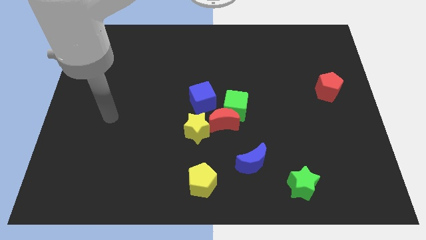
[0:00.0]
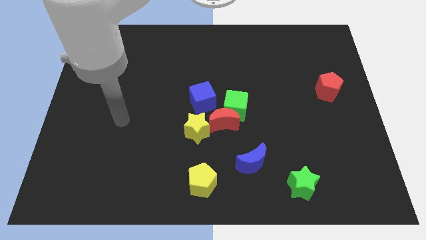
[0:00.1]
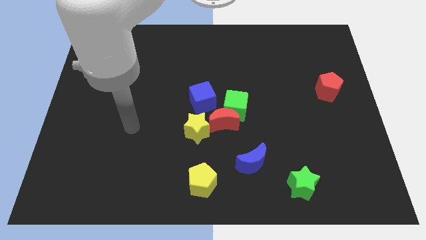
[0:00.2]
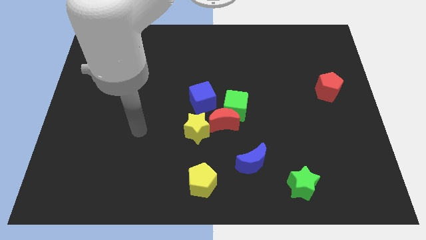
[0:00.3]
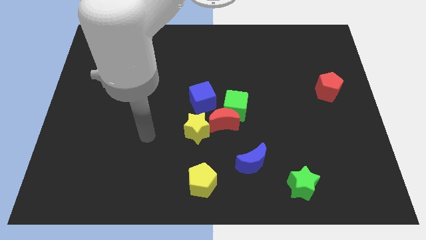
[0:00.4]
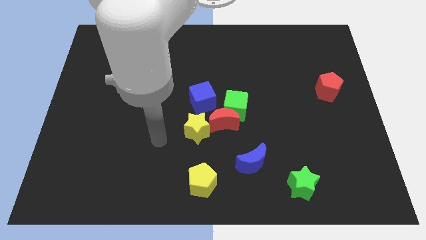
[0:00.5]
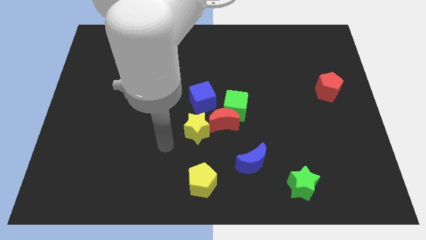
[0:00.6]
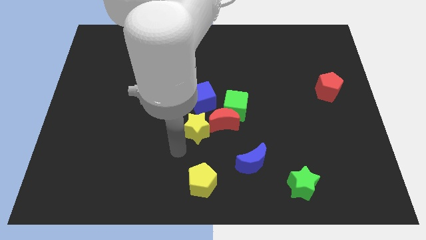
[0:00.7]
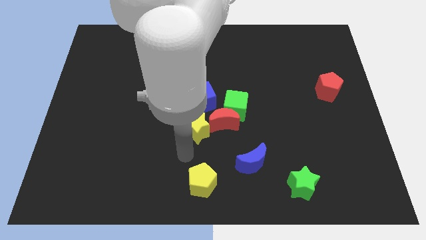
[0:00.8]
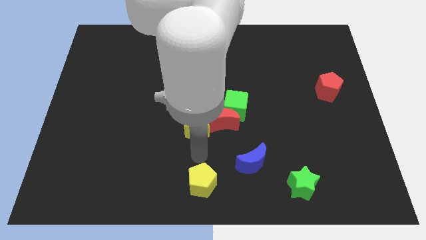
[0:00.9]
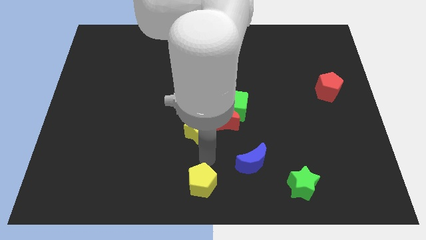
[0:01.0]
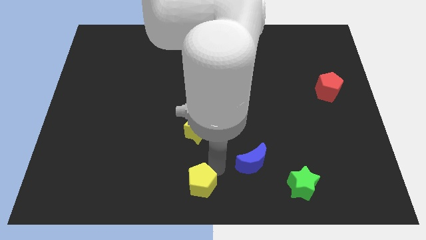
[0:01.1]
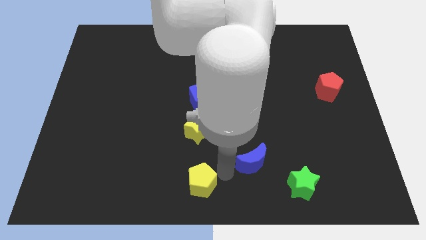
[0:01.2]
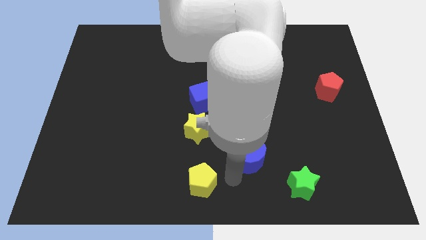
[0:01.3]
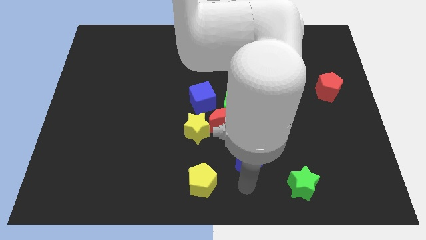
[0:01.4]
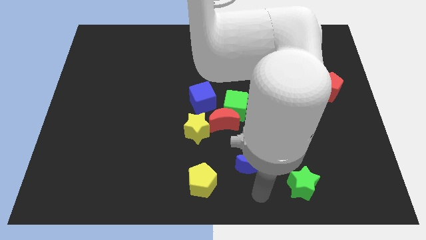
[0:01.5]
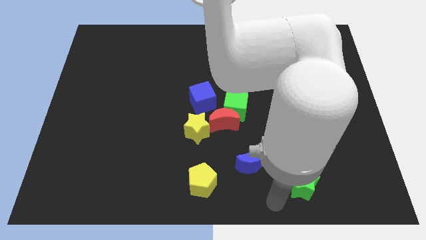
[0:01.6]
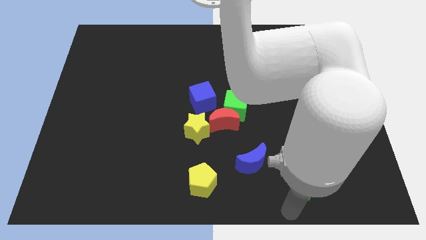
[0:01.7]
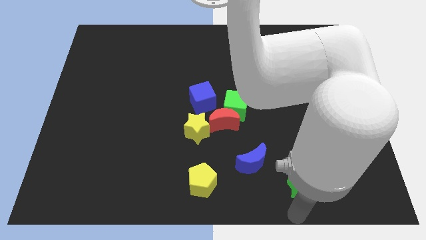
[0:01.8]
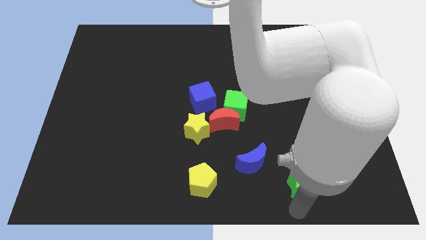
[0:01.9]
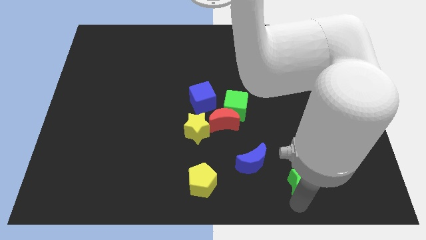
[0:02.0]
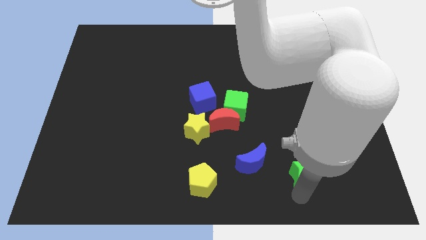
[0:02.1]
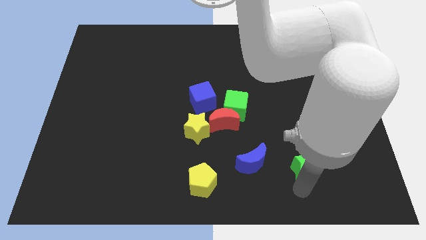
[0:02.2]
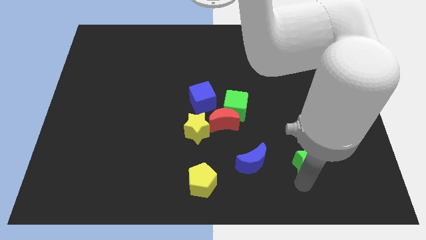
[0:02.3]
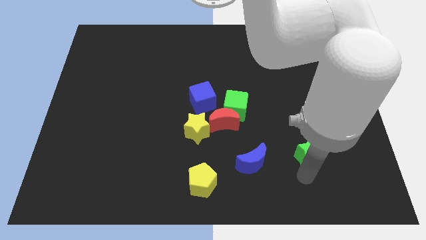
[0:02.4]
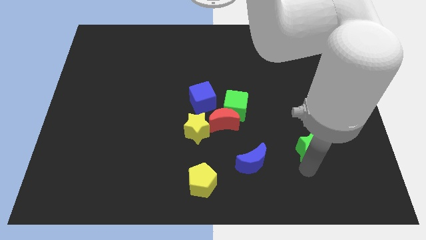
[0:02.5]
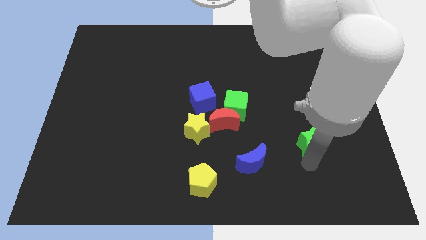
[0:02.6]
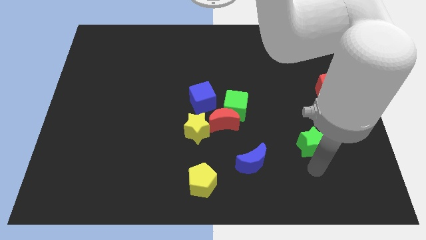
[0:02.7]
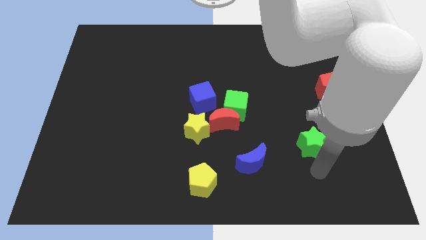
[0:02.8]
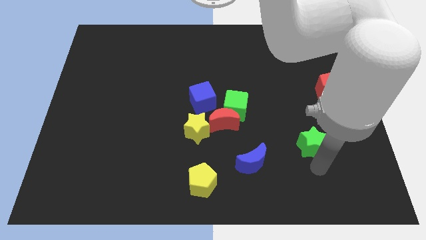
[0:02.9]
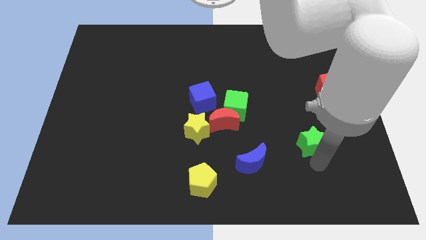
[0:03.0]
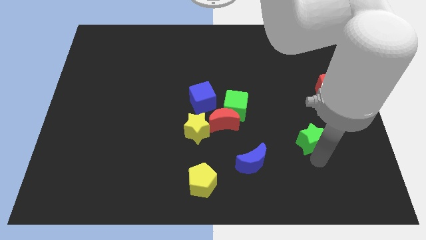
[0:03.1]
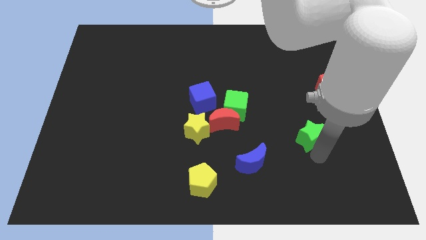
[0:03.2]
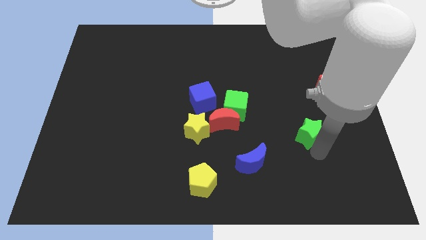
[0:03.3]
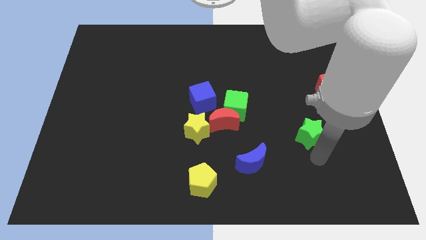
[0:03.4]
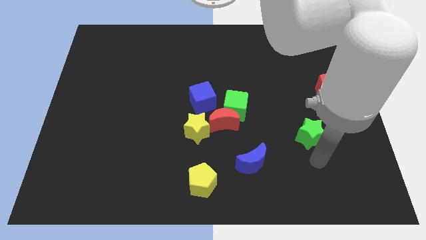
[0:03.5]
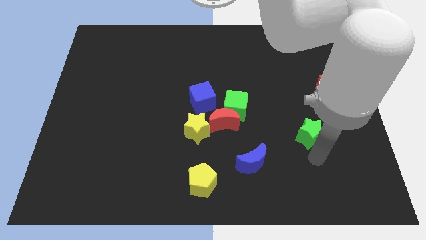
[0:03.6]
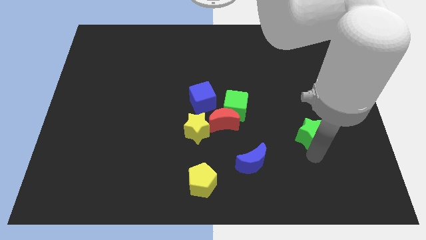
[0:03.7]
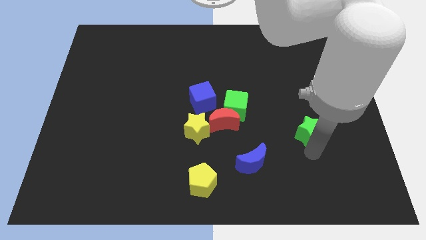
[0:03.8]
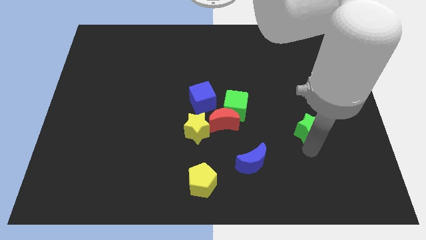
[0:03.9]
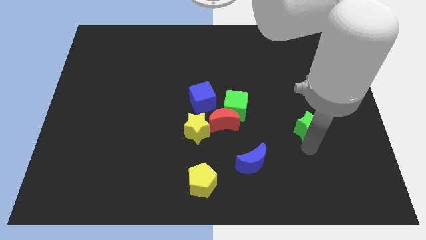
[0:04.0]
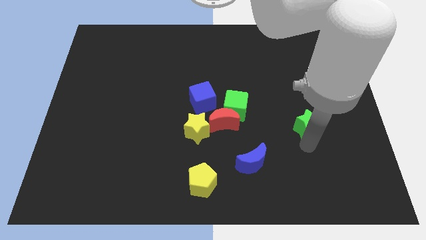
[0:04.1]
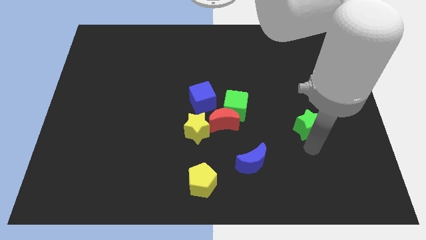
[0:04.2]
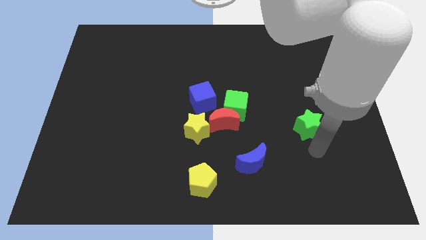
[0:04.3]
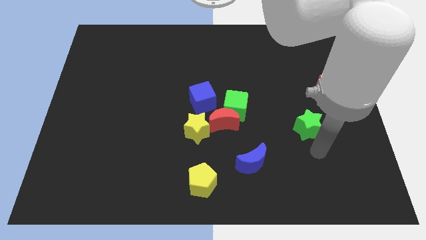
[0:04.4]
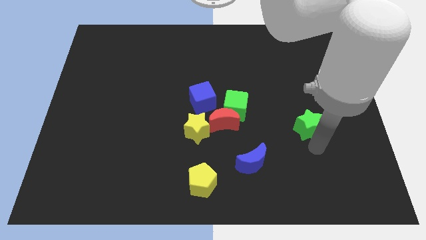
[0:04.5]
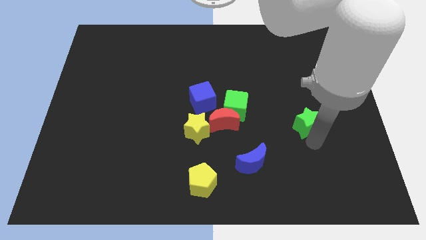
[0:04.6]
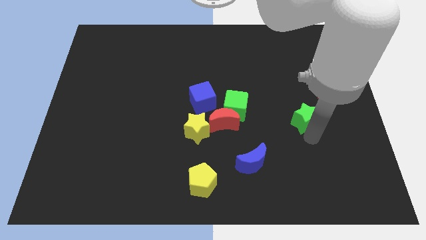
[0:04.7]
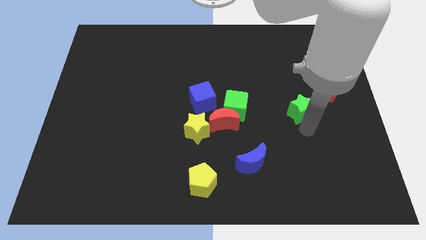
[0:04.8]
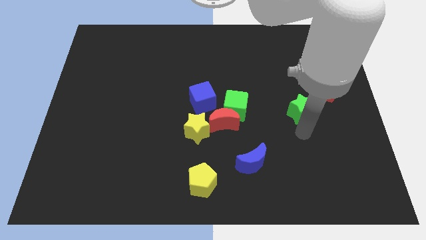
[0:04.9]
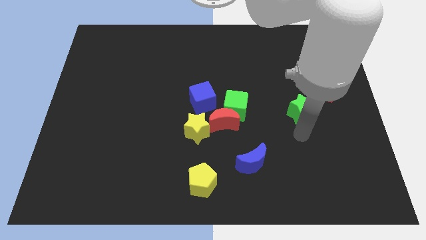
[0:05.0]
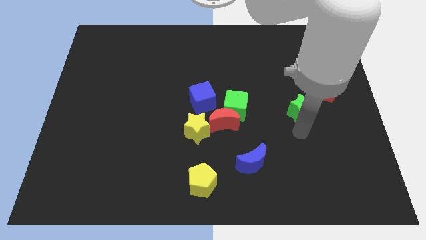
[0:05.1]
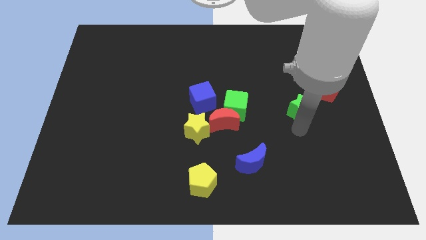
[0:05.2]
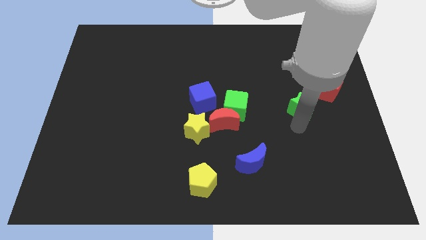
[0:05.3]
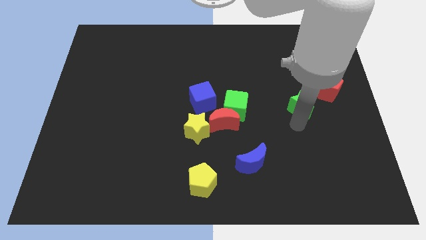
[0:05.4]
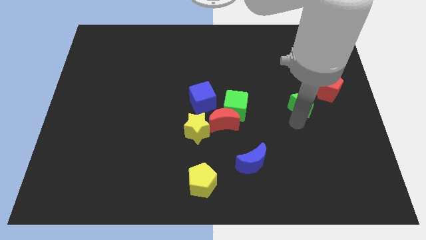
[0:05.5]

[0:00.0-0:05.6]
push the green star upwards

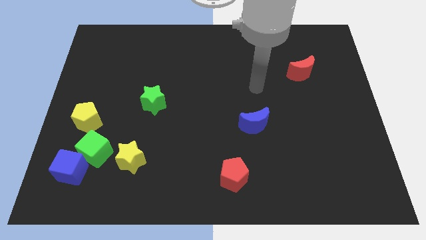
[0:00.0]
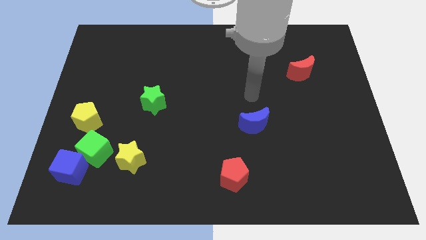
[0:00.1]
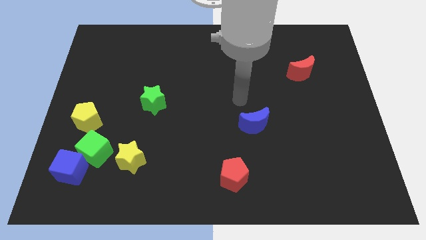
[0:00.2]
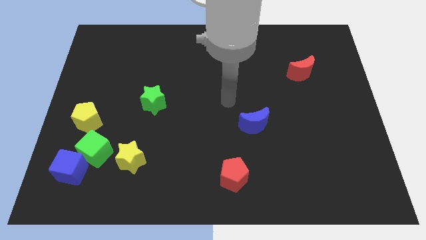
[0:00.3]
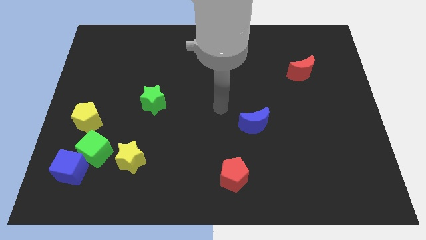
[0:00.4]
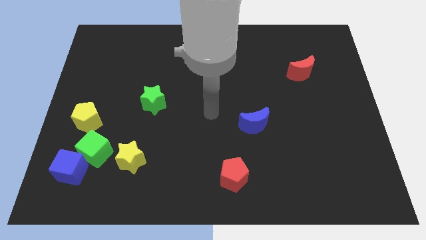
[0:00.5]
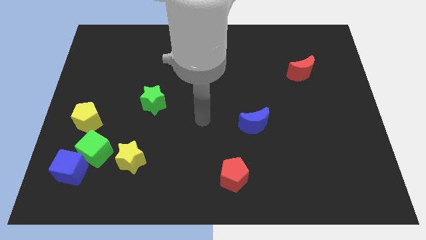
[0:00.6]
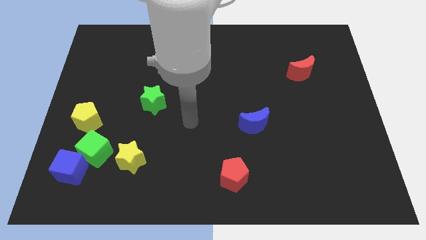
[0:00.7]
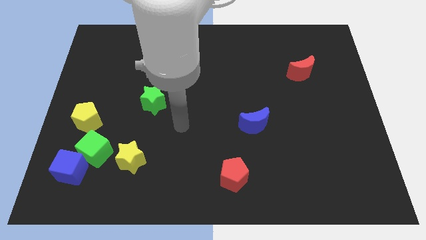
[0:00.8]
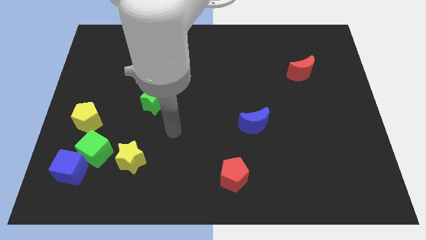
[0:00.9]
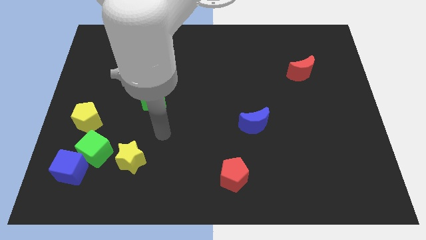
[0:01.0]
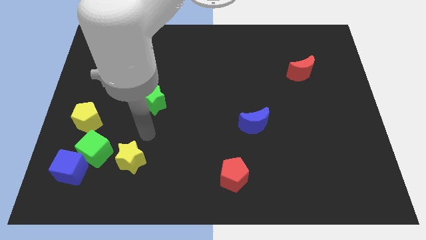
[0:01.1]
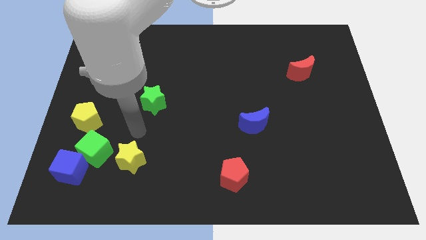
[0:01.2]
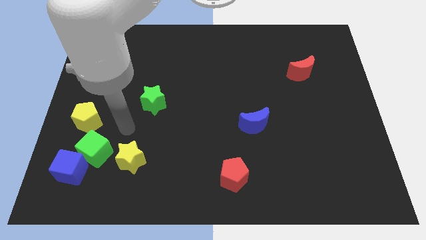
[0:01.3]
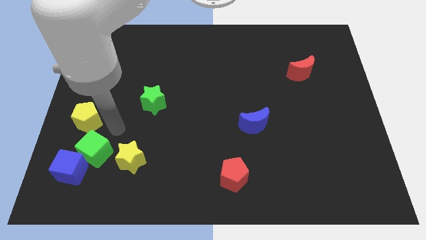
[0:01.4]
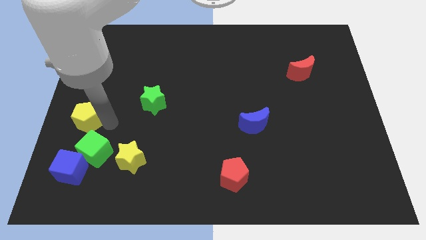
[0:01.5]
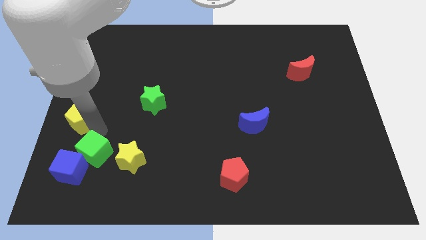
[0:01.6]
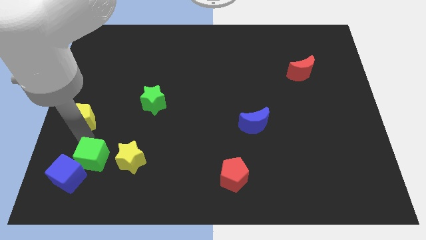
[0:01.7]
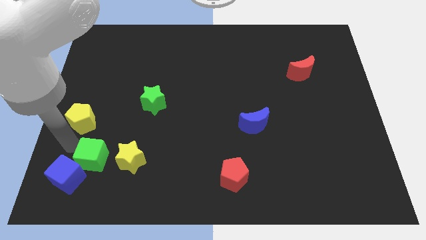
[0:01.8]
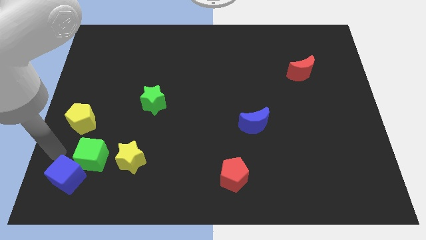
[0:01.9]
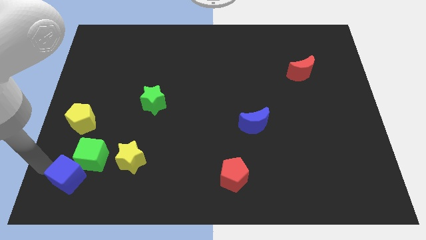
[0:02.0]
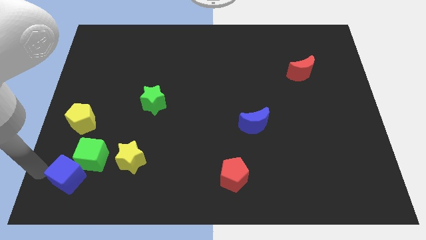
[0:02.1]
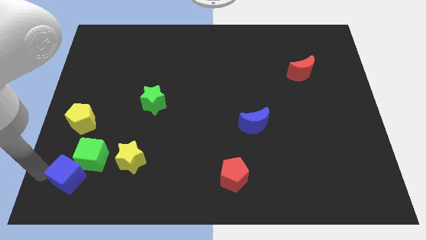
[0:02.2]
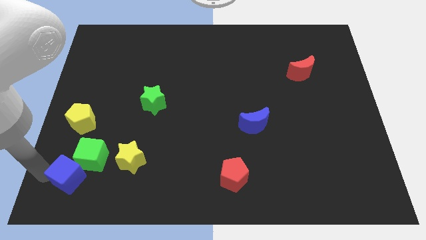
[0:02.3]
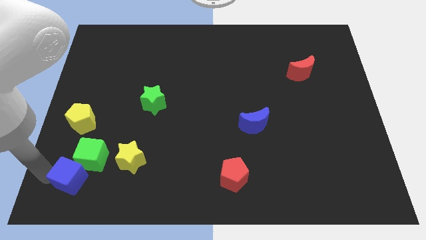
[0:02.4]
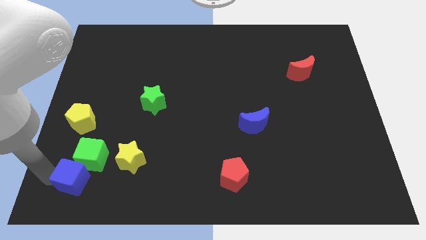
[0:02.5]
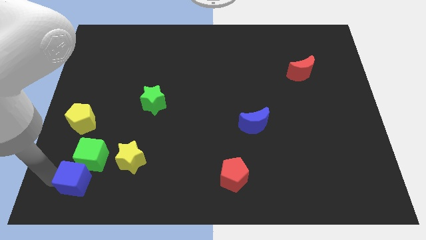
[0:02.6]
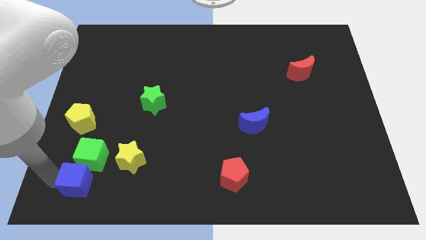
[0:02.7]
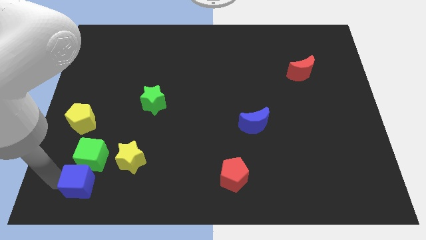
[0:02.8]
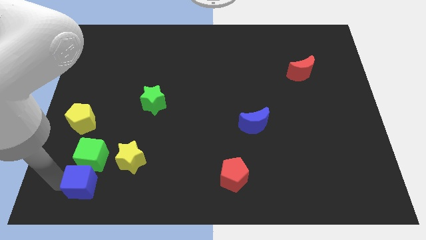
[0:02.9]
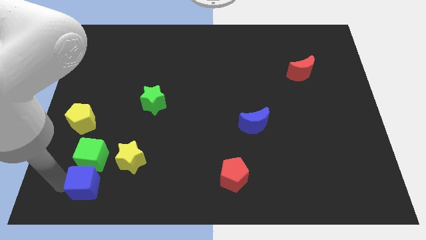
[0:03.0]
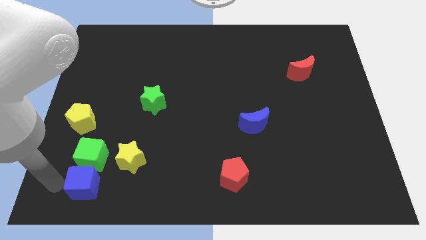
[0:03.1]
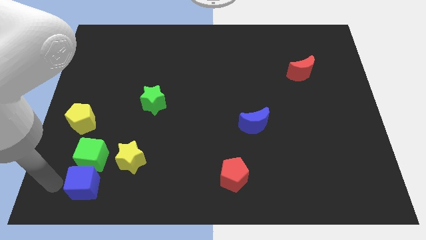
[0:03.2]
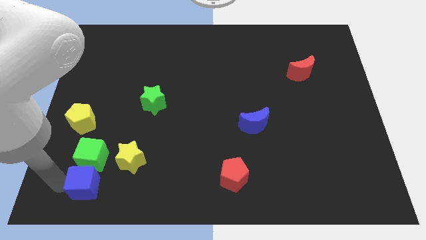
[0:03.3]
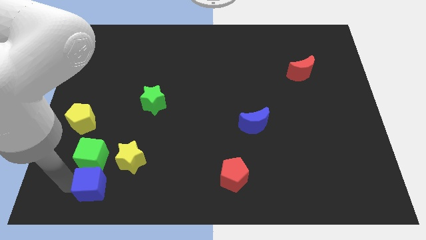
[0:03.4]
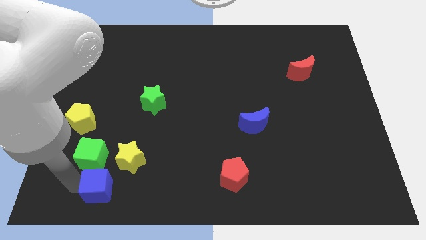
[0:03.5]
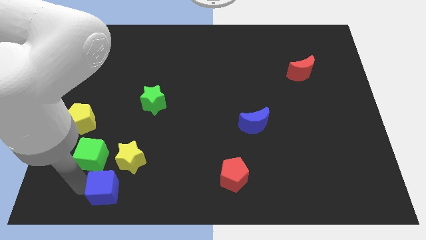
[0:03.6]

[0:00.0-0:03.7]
slightly slide the blue cube to the right
